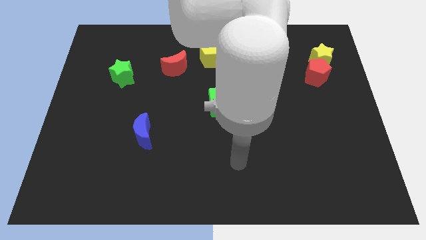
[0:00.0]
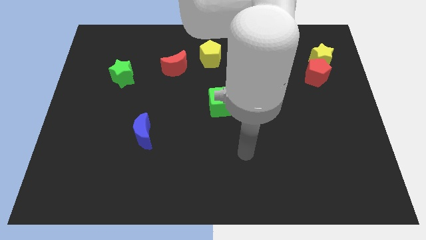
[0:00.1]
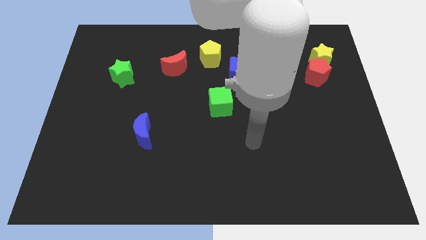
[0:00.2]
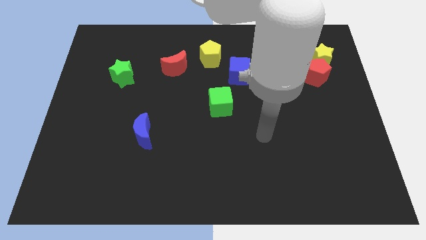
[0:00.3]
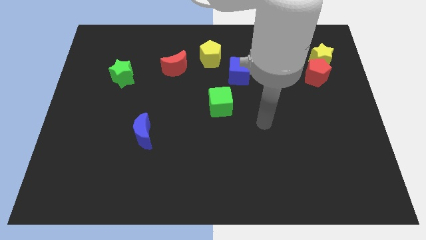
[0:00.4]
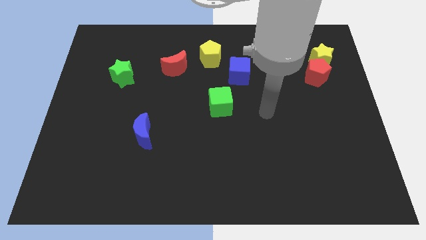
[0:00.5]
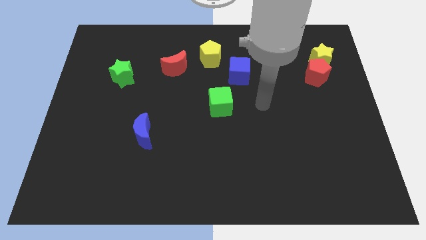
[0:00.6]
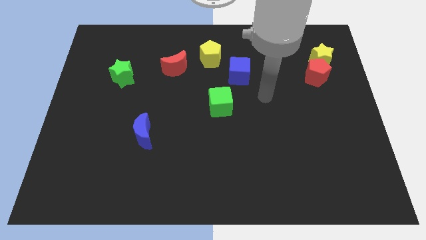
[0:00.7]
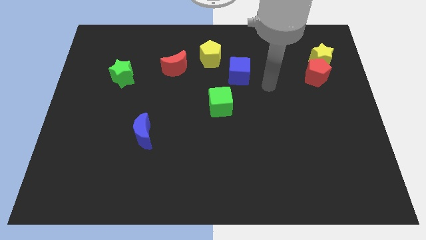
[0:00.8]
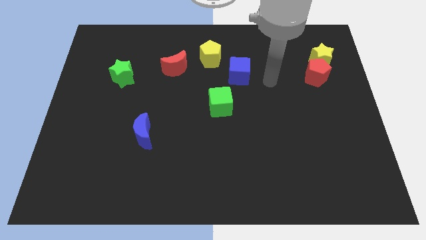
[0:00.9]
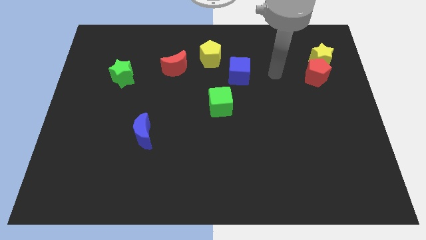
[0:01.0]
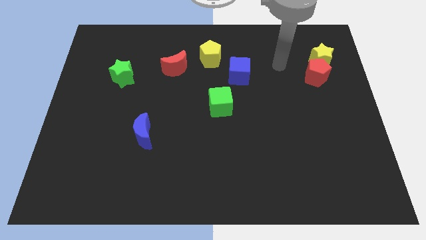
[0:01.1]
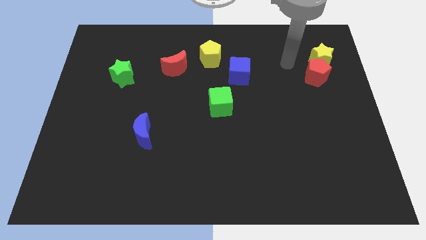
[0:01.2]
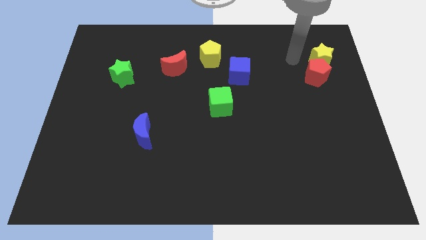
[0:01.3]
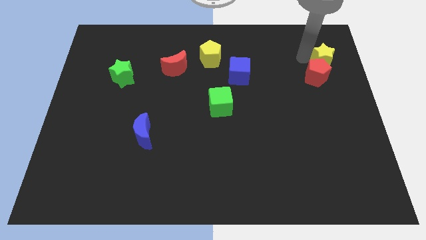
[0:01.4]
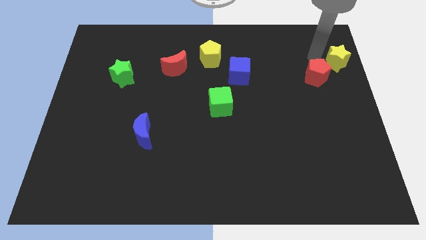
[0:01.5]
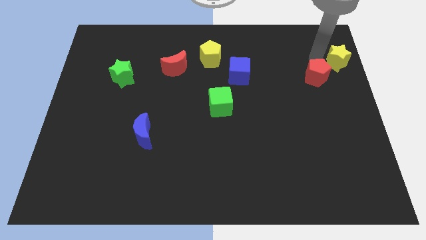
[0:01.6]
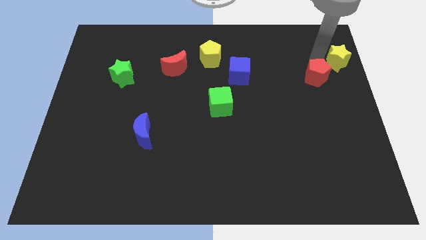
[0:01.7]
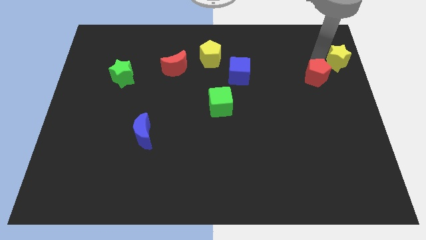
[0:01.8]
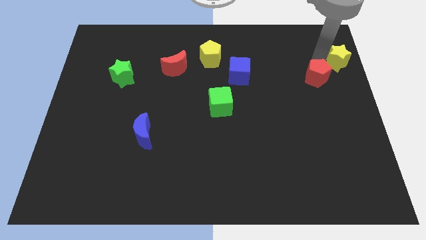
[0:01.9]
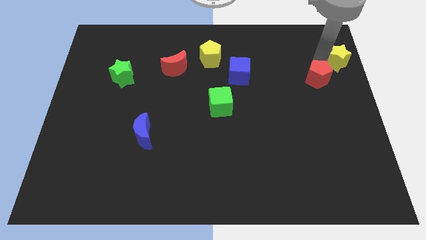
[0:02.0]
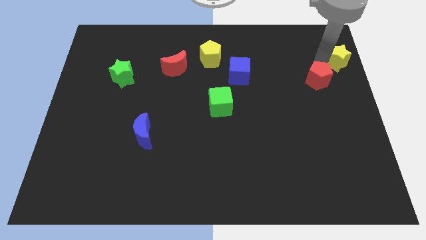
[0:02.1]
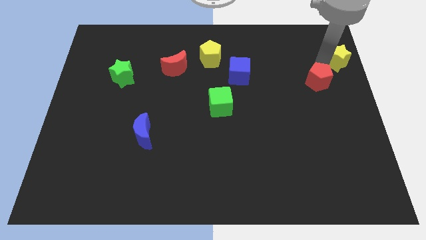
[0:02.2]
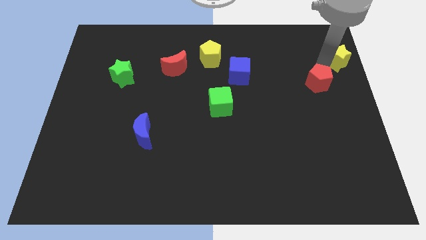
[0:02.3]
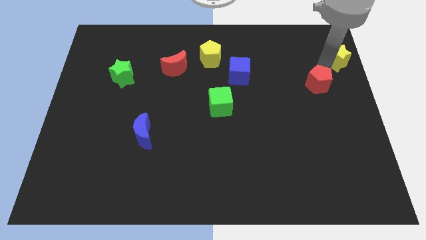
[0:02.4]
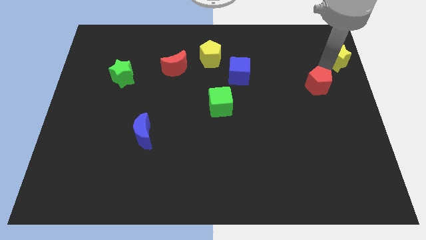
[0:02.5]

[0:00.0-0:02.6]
move the red pentagon away from the yellow star

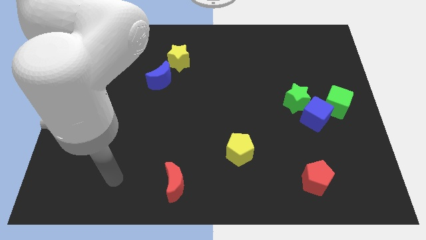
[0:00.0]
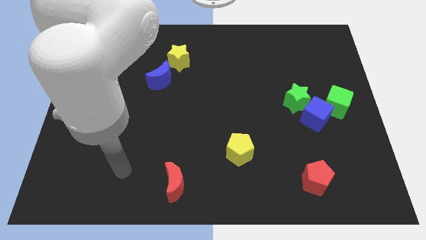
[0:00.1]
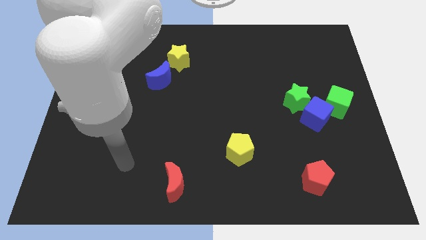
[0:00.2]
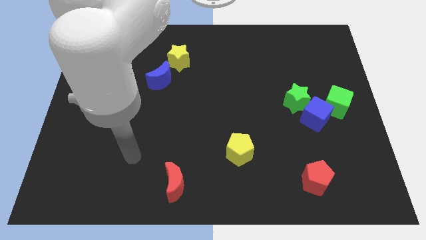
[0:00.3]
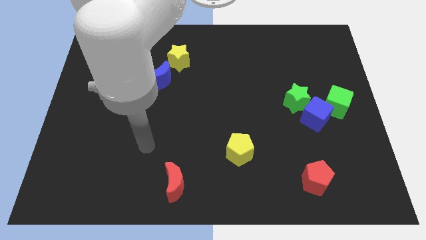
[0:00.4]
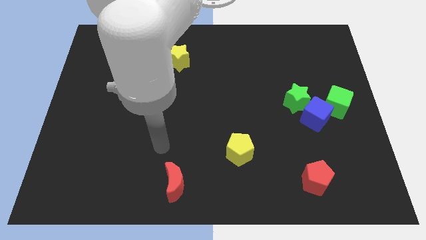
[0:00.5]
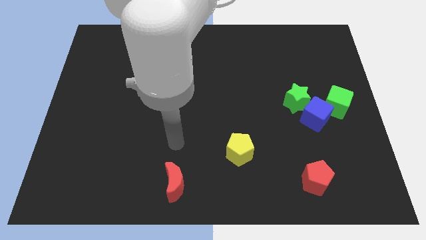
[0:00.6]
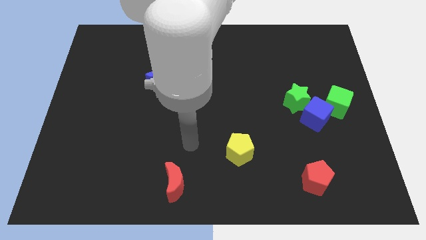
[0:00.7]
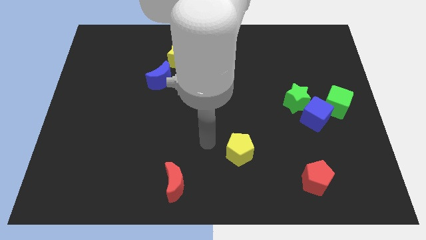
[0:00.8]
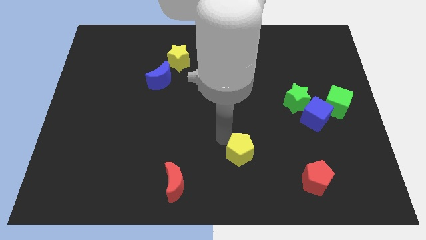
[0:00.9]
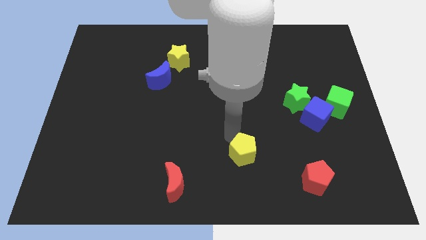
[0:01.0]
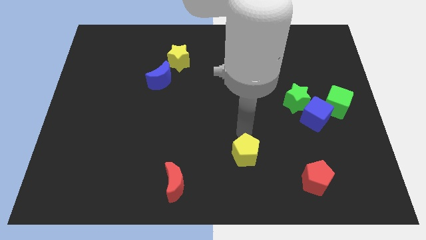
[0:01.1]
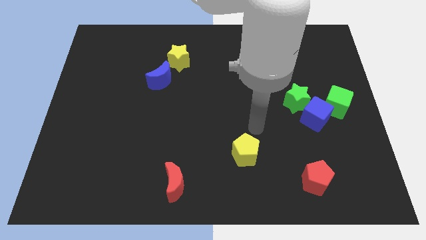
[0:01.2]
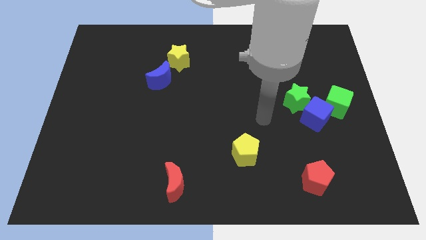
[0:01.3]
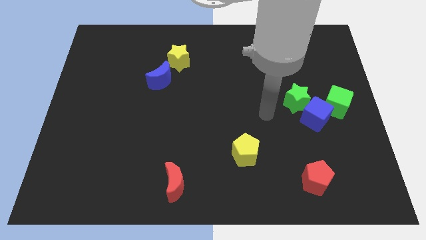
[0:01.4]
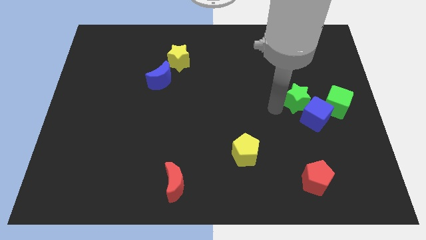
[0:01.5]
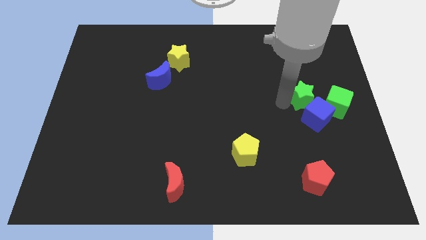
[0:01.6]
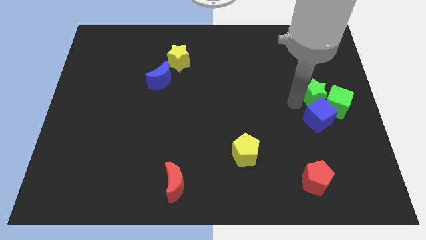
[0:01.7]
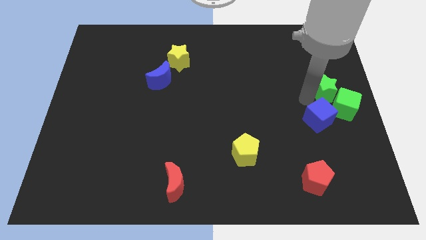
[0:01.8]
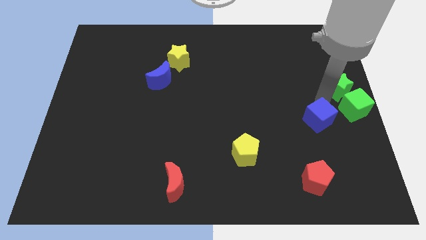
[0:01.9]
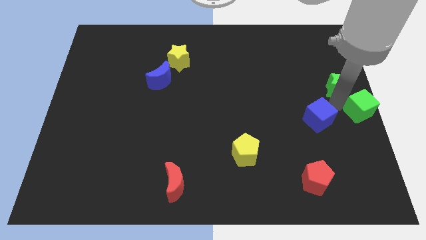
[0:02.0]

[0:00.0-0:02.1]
pull the blue cube apart from the green star and green cube

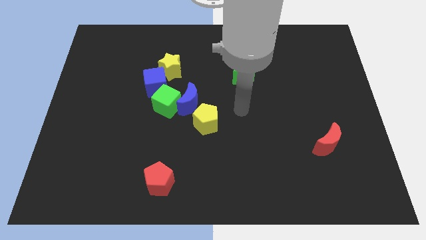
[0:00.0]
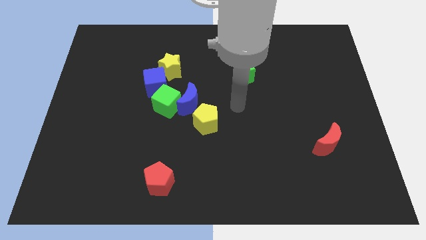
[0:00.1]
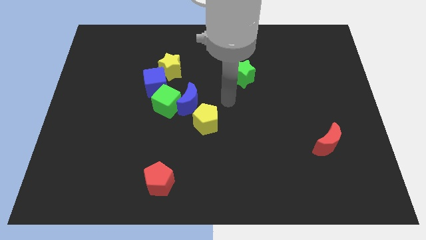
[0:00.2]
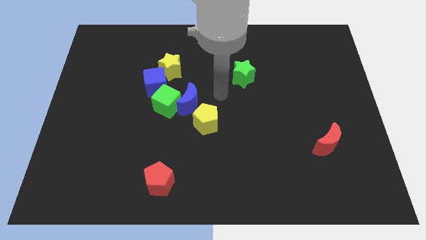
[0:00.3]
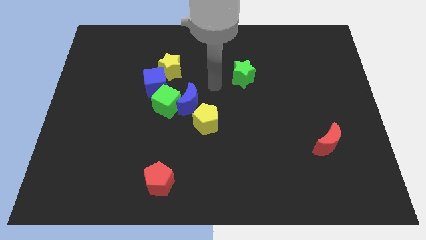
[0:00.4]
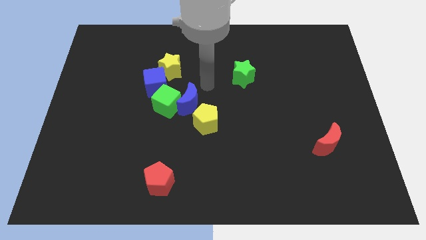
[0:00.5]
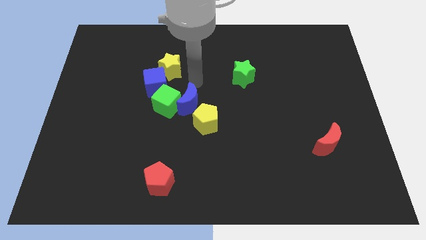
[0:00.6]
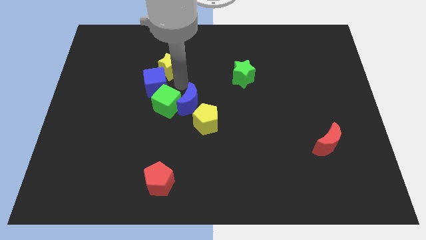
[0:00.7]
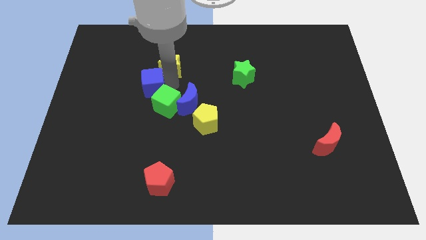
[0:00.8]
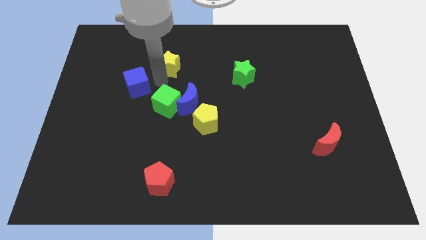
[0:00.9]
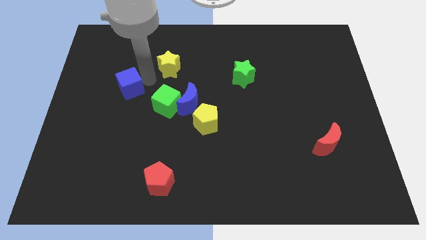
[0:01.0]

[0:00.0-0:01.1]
separate the yellow star from the blue cube

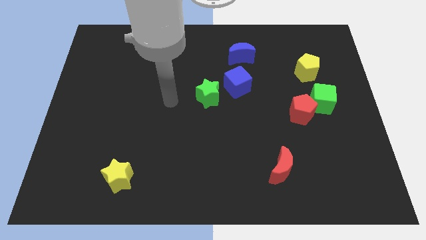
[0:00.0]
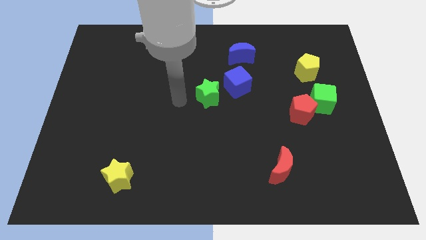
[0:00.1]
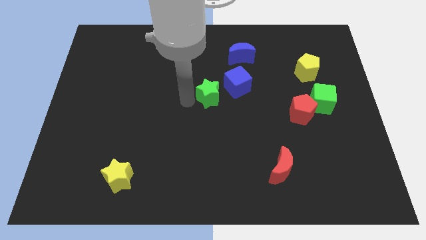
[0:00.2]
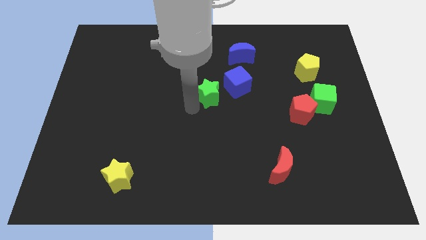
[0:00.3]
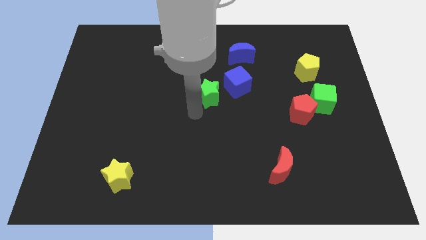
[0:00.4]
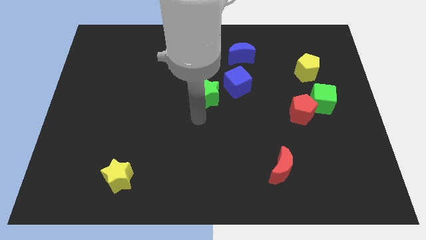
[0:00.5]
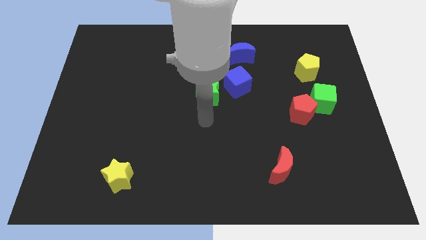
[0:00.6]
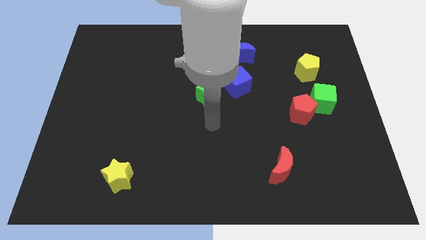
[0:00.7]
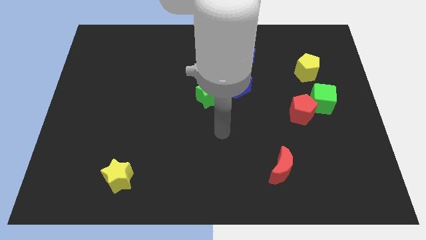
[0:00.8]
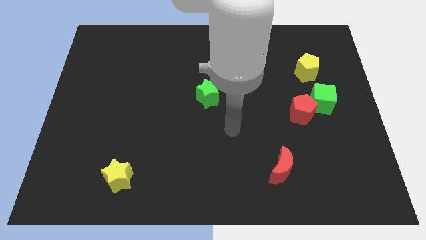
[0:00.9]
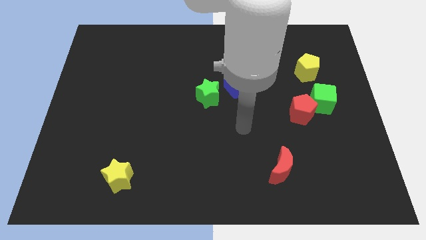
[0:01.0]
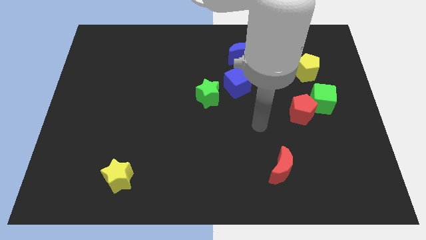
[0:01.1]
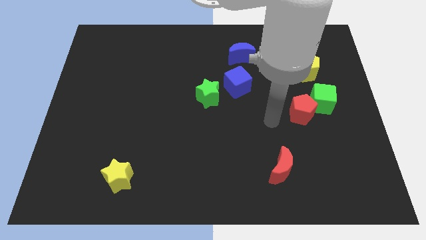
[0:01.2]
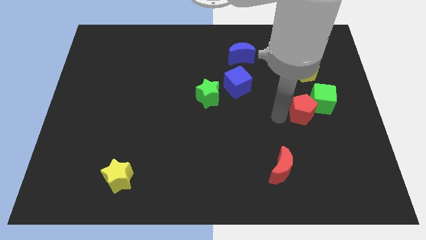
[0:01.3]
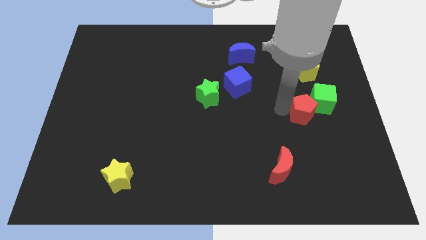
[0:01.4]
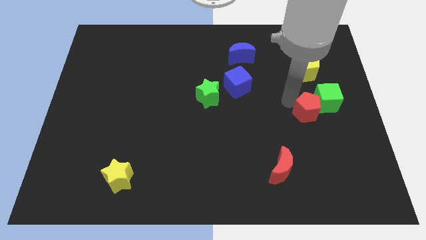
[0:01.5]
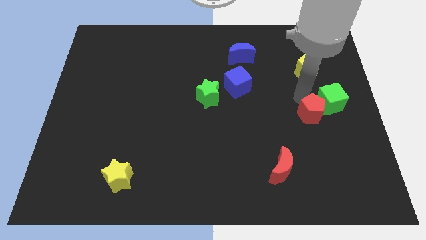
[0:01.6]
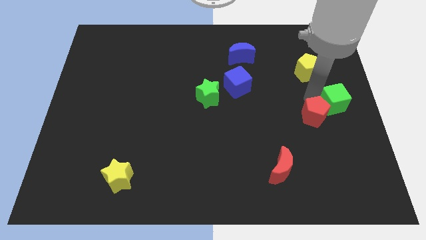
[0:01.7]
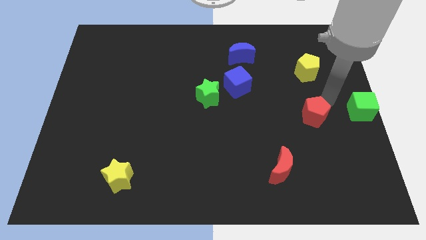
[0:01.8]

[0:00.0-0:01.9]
pull the red pentagon apart from the green cube

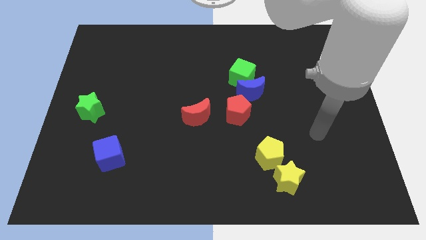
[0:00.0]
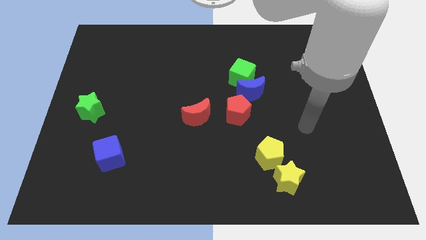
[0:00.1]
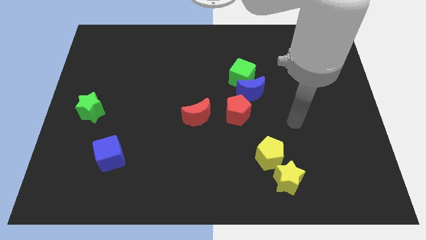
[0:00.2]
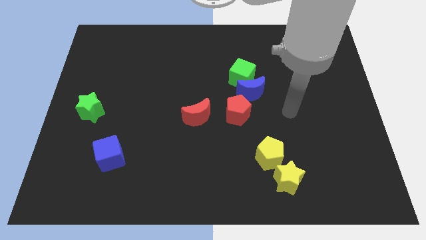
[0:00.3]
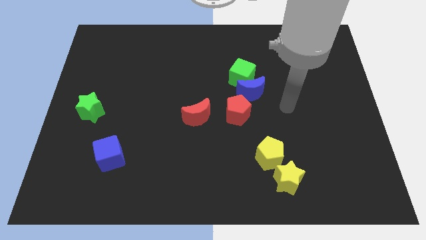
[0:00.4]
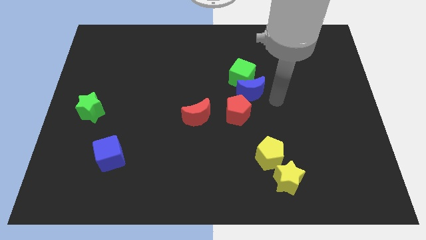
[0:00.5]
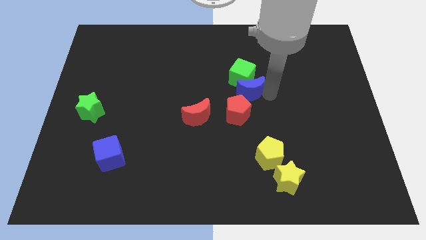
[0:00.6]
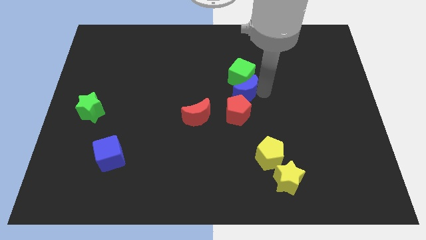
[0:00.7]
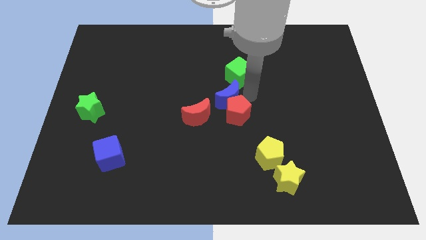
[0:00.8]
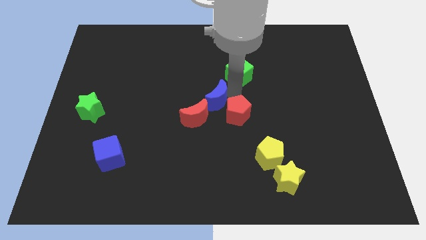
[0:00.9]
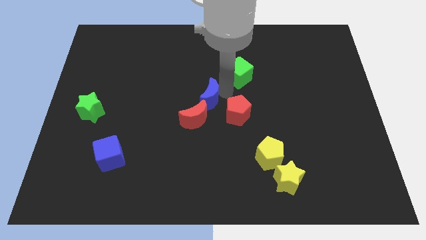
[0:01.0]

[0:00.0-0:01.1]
move the green cube away from the blue moon

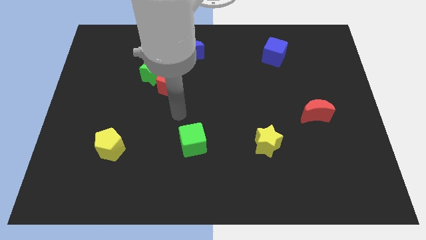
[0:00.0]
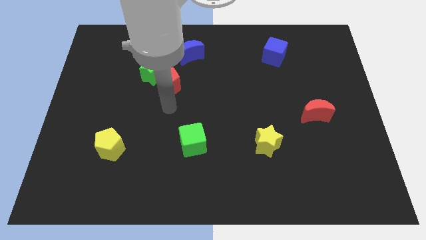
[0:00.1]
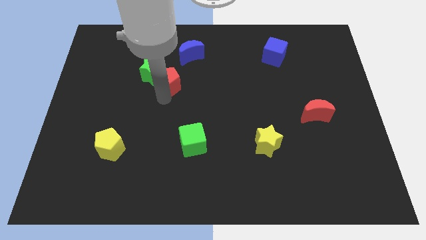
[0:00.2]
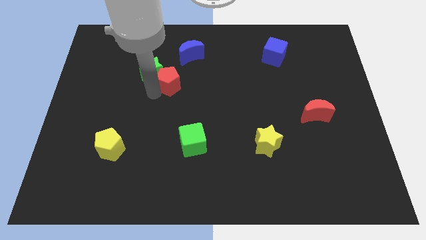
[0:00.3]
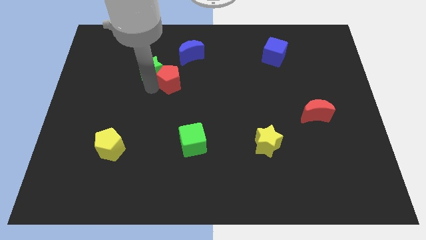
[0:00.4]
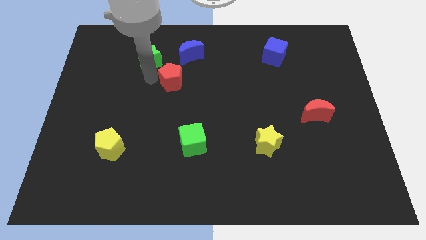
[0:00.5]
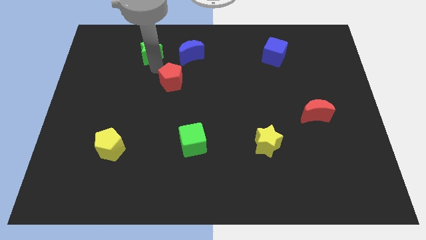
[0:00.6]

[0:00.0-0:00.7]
pull the red pentagon apart from the green star
